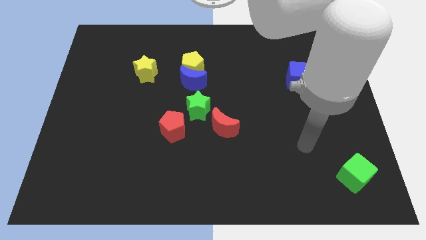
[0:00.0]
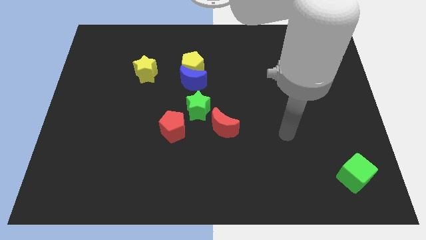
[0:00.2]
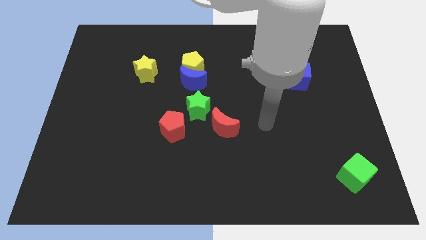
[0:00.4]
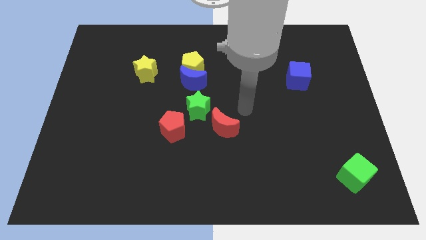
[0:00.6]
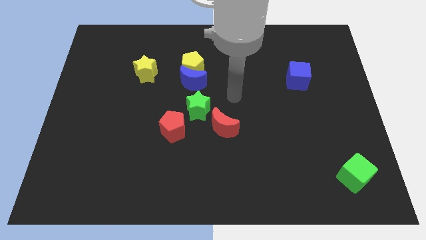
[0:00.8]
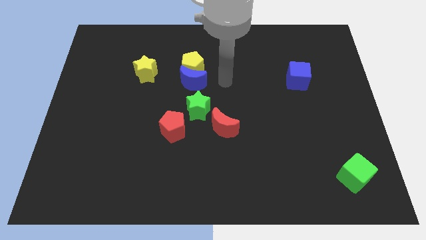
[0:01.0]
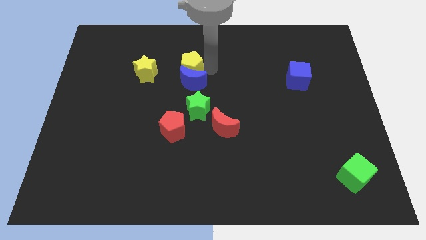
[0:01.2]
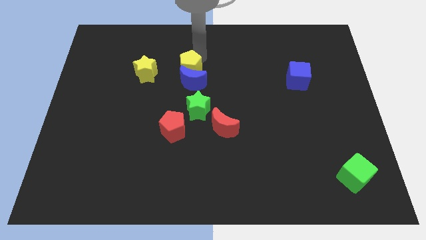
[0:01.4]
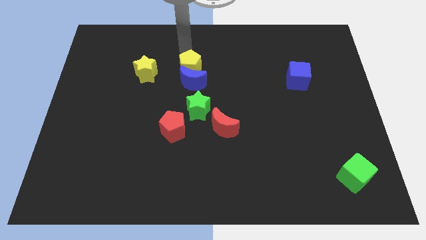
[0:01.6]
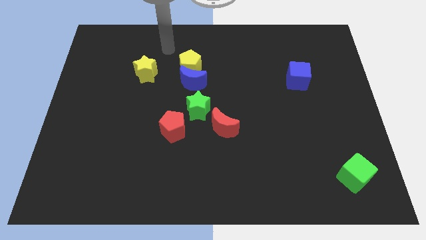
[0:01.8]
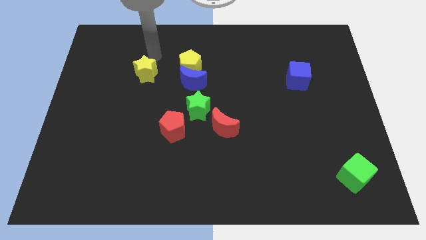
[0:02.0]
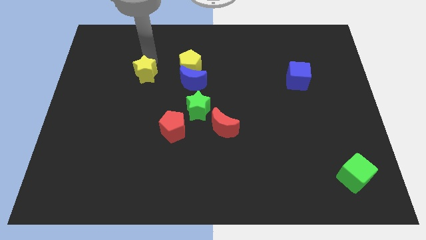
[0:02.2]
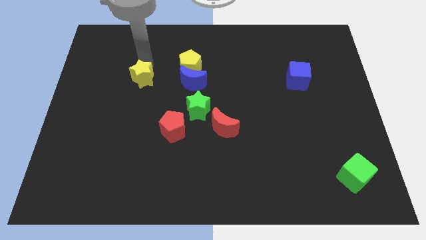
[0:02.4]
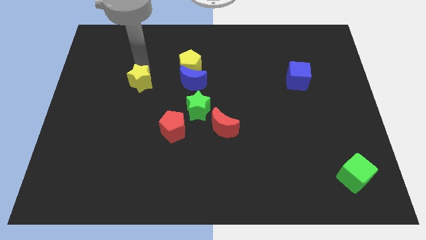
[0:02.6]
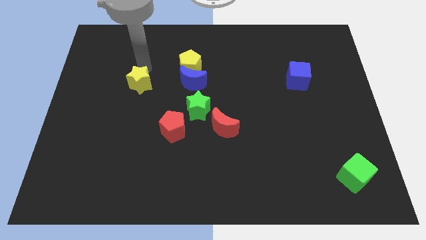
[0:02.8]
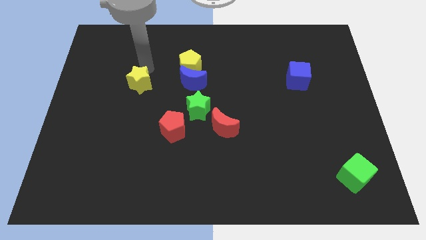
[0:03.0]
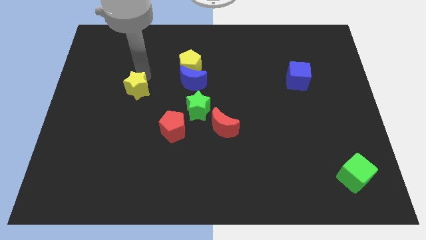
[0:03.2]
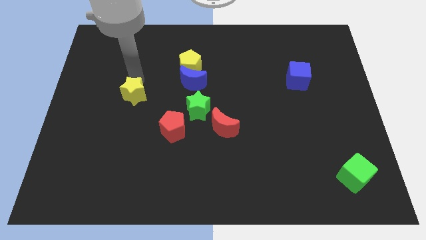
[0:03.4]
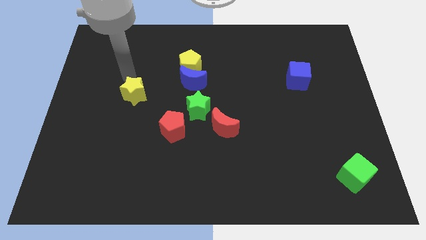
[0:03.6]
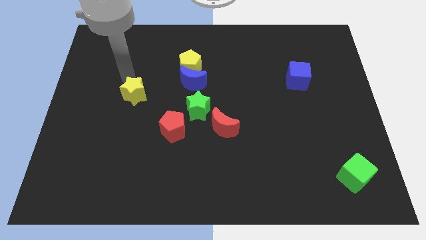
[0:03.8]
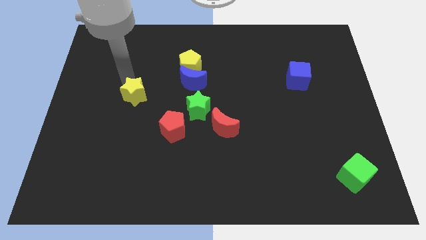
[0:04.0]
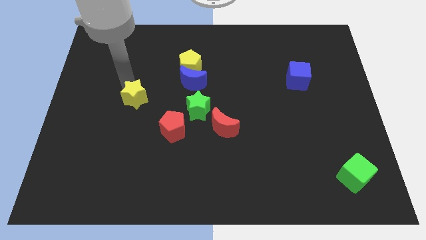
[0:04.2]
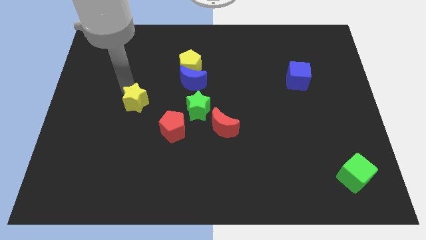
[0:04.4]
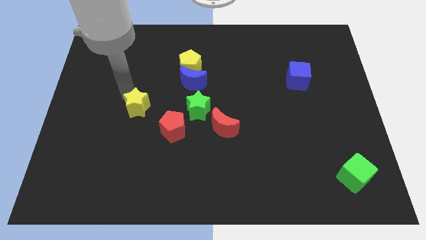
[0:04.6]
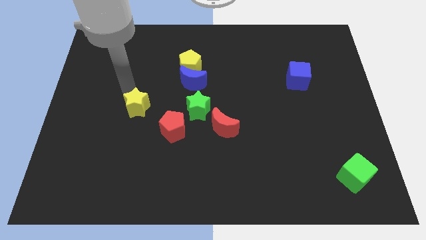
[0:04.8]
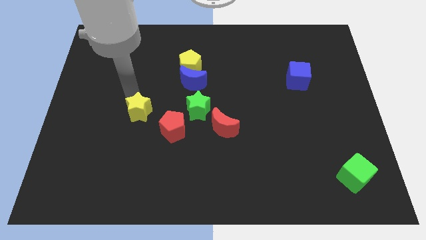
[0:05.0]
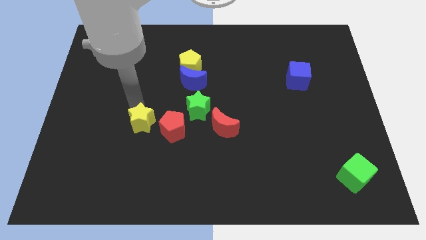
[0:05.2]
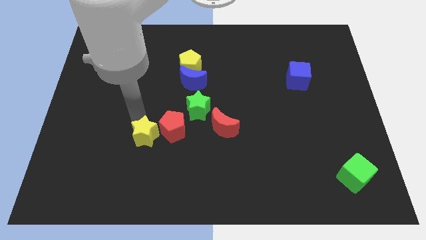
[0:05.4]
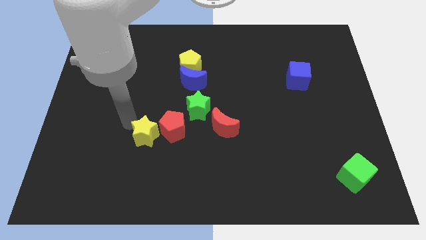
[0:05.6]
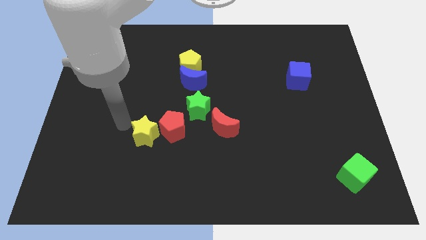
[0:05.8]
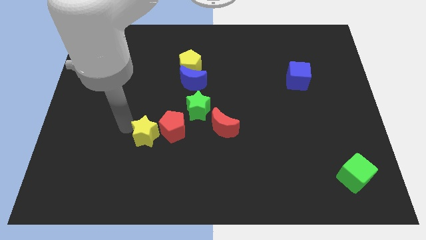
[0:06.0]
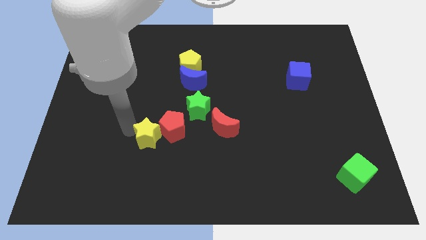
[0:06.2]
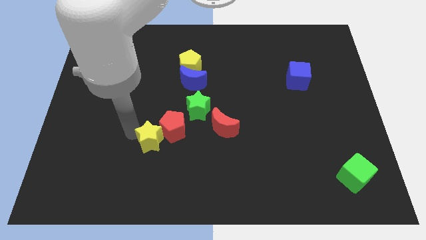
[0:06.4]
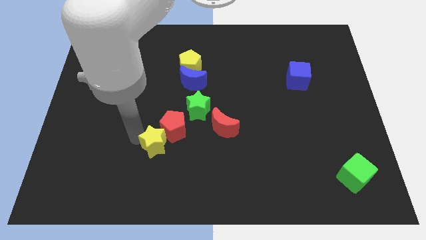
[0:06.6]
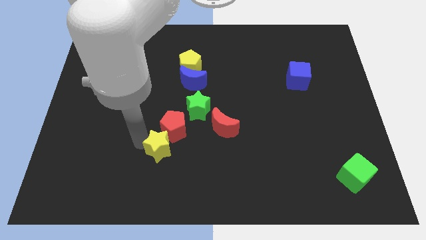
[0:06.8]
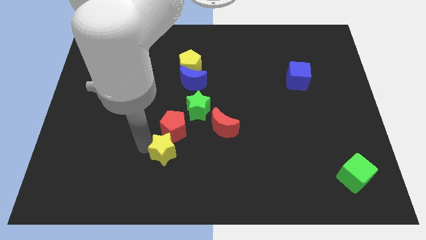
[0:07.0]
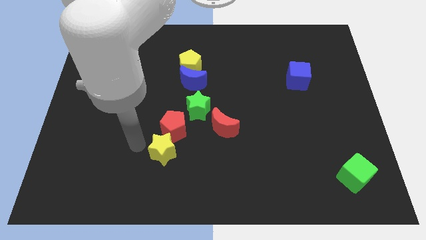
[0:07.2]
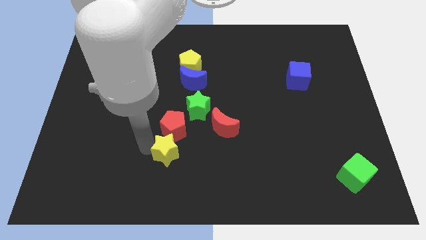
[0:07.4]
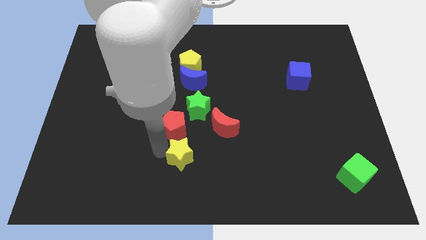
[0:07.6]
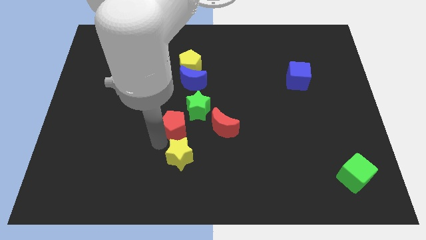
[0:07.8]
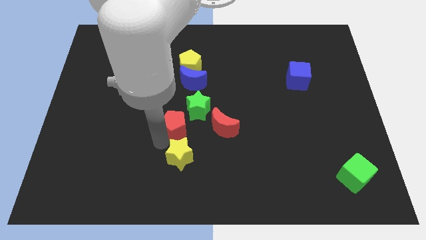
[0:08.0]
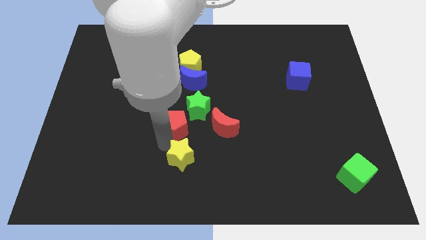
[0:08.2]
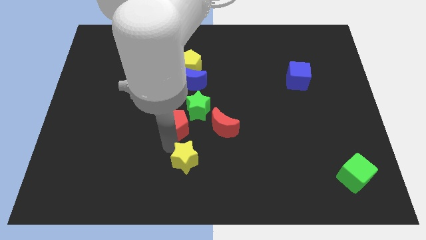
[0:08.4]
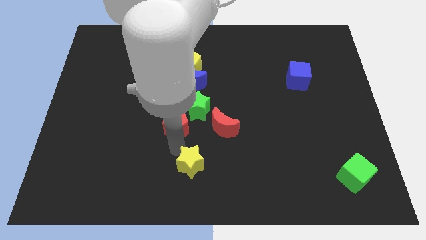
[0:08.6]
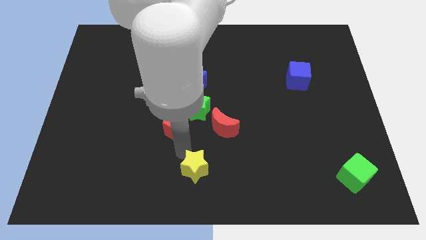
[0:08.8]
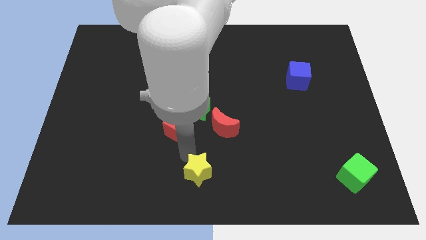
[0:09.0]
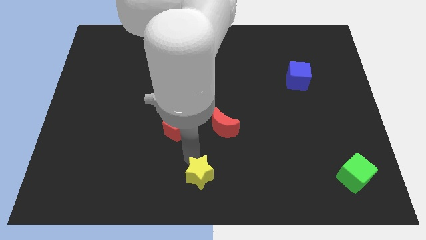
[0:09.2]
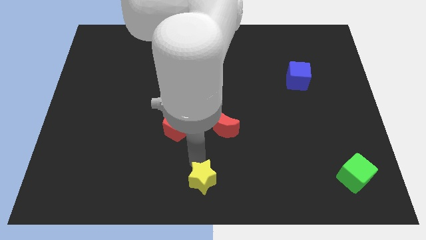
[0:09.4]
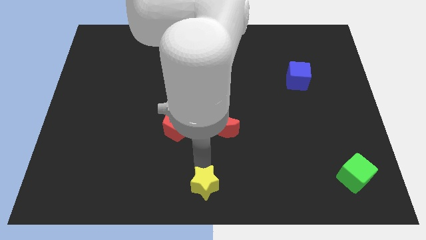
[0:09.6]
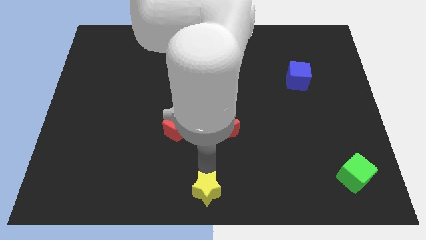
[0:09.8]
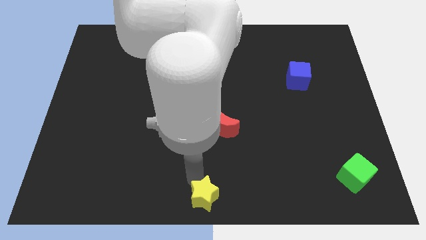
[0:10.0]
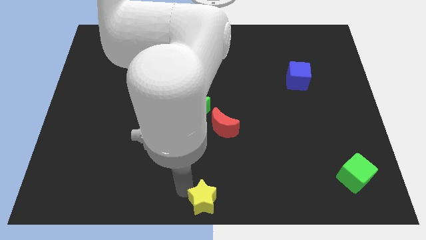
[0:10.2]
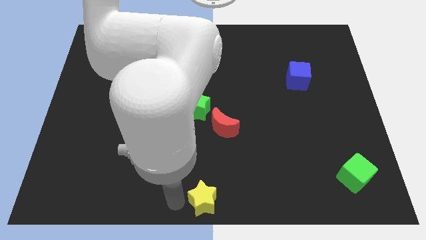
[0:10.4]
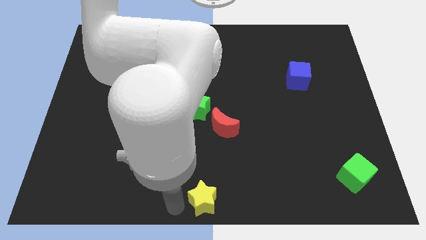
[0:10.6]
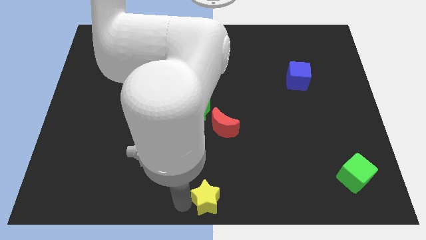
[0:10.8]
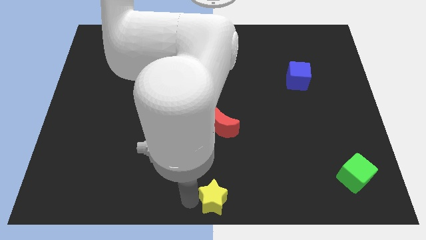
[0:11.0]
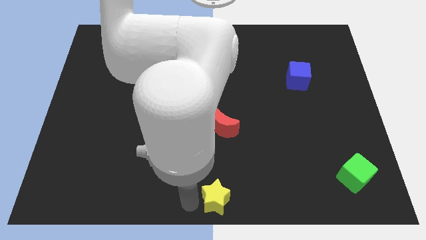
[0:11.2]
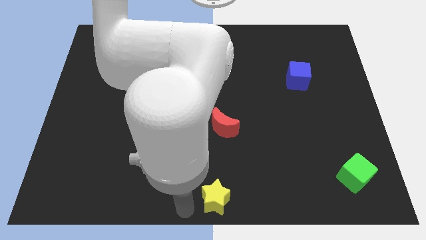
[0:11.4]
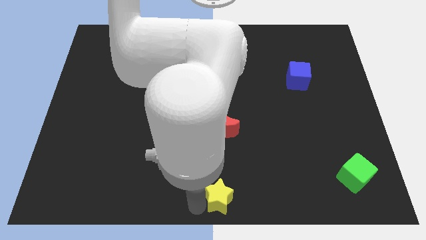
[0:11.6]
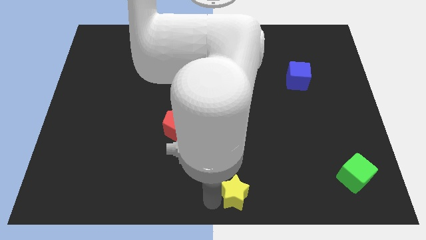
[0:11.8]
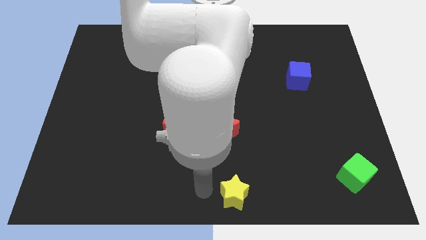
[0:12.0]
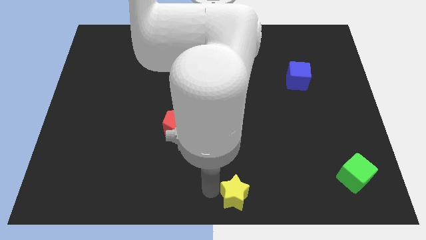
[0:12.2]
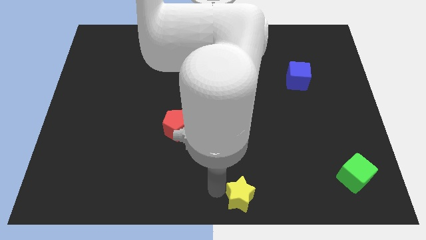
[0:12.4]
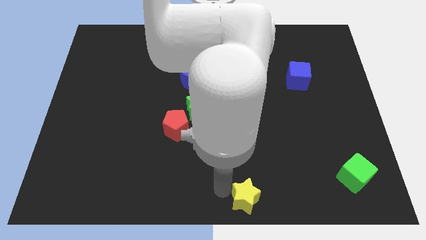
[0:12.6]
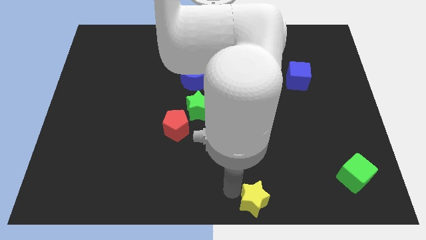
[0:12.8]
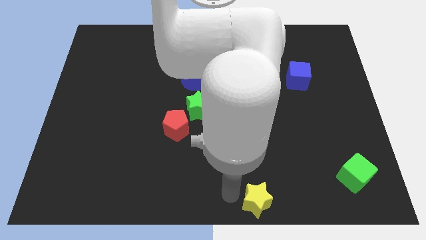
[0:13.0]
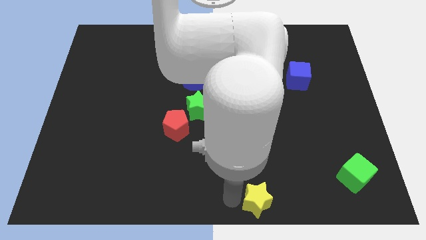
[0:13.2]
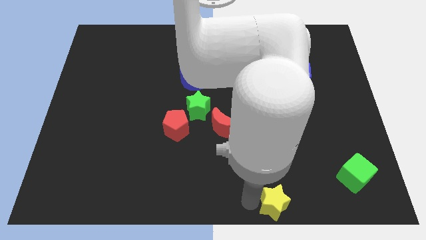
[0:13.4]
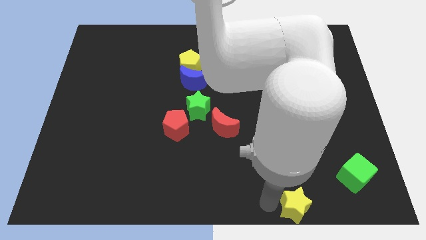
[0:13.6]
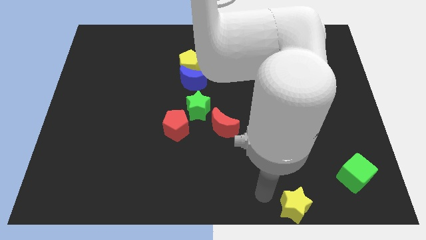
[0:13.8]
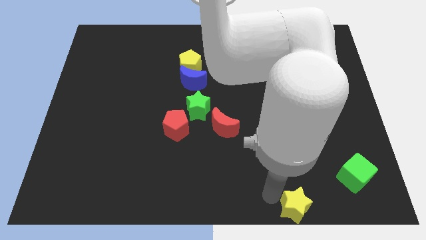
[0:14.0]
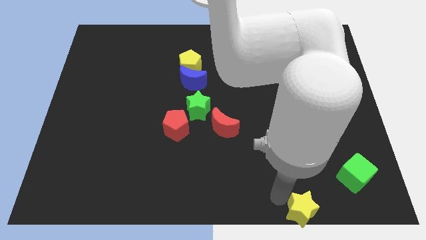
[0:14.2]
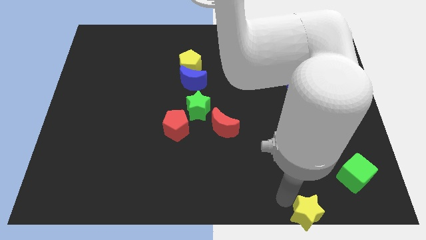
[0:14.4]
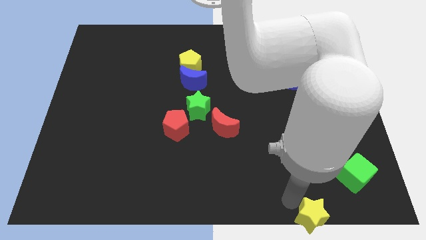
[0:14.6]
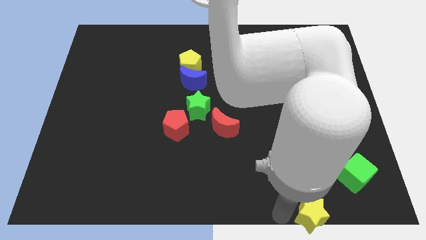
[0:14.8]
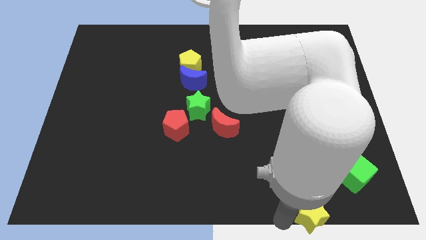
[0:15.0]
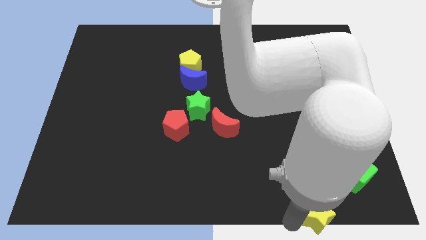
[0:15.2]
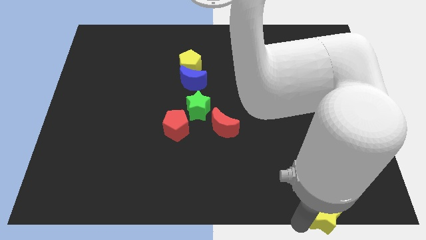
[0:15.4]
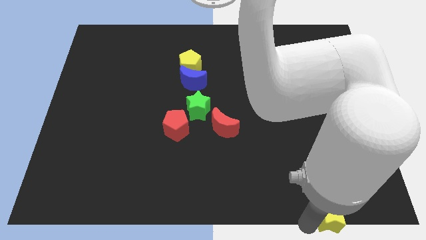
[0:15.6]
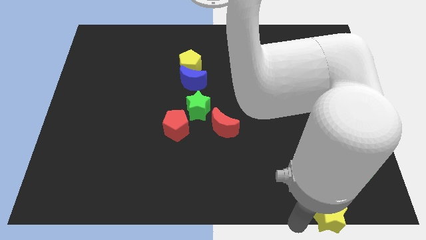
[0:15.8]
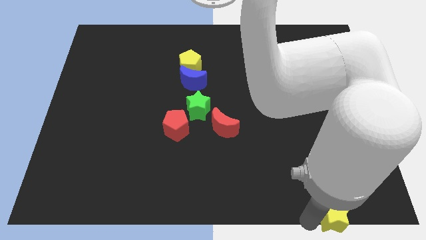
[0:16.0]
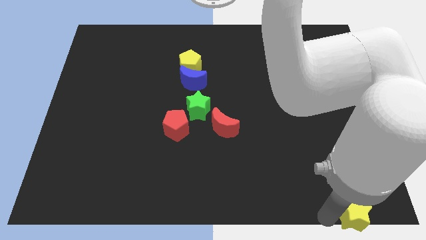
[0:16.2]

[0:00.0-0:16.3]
put the yellow star to the bottom right of the board
